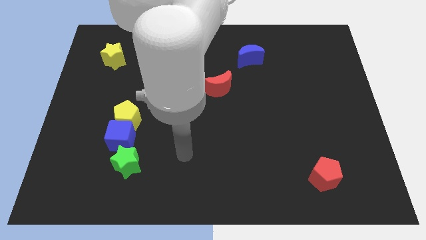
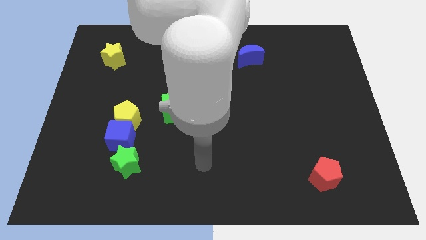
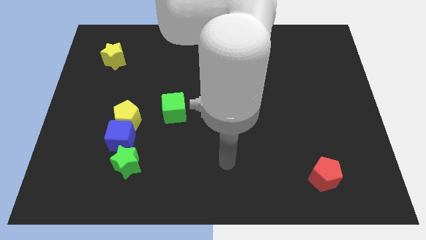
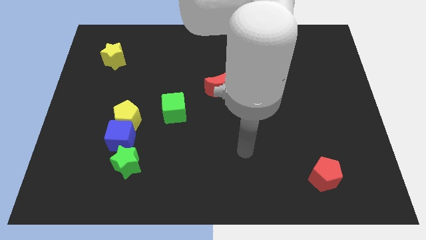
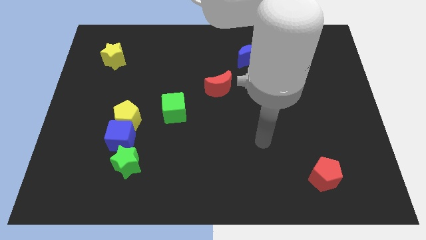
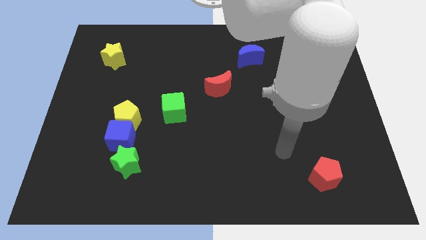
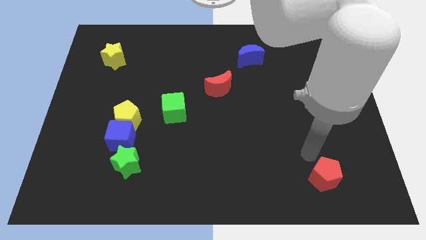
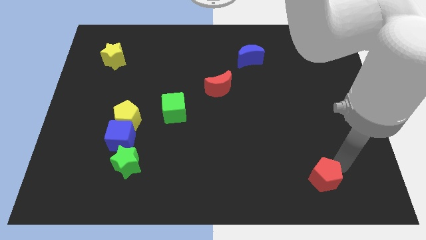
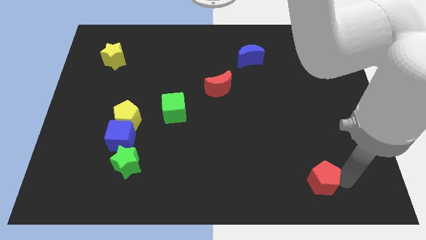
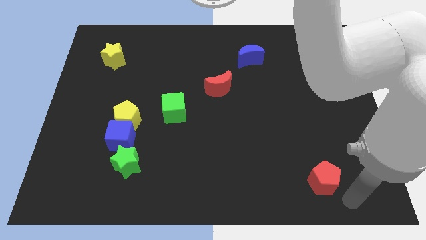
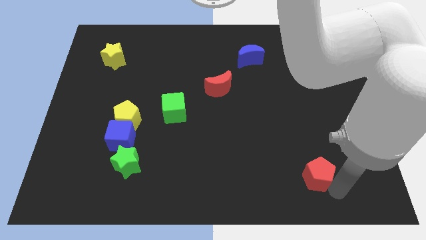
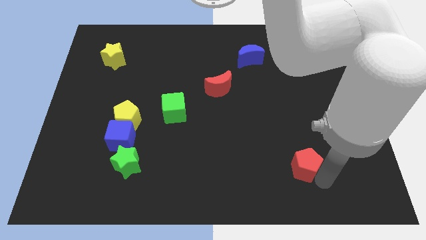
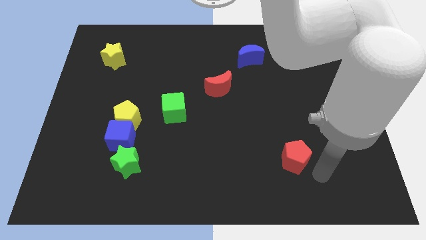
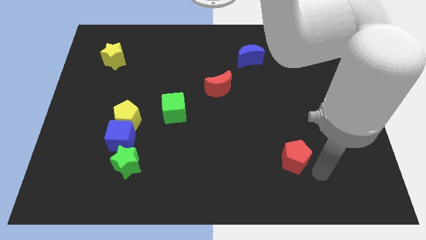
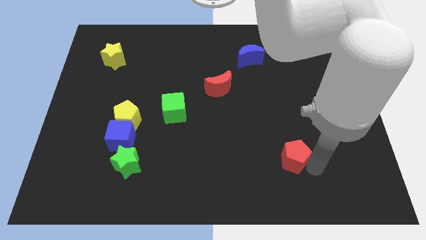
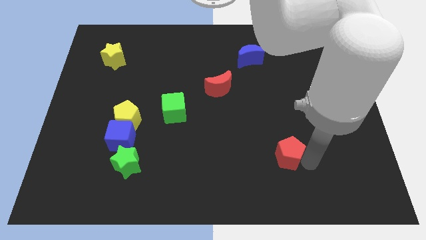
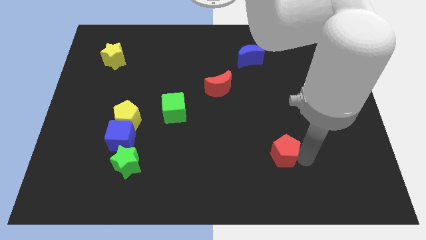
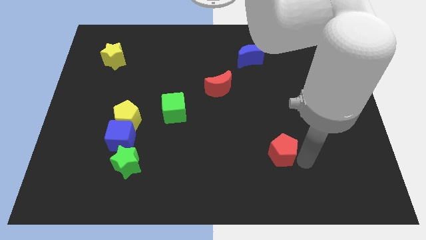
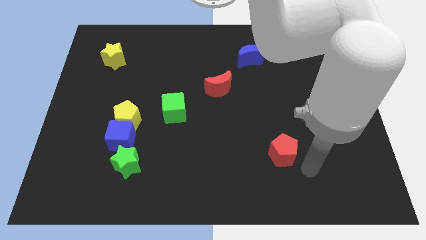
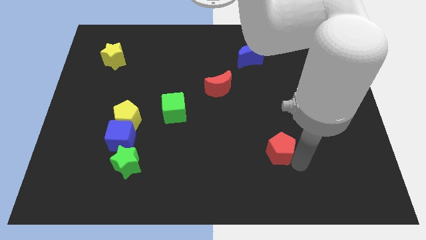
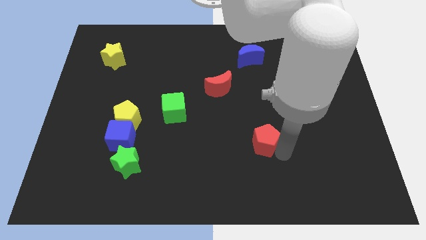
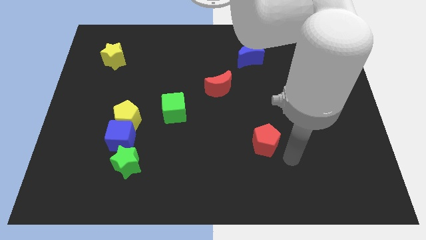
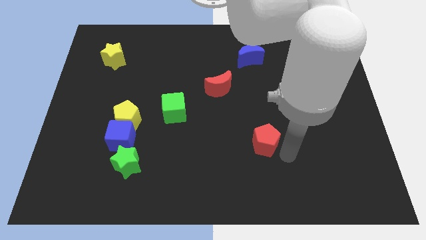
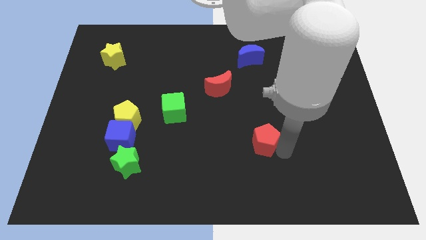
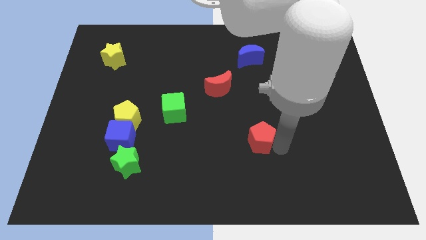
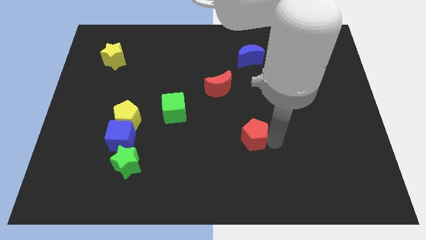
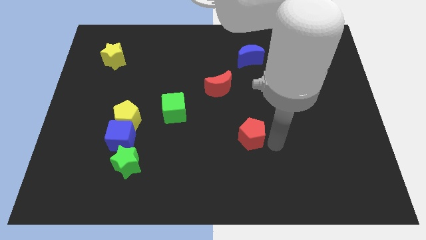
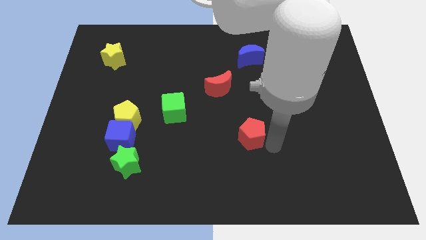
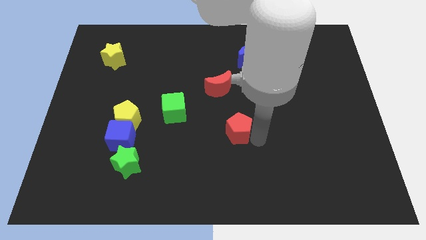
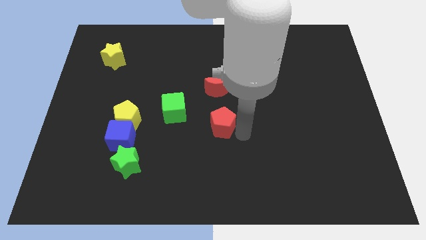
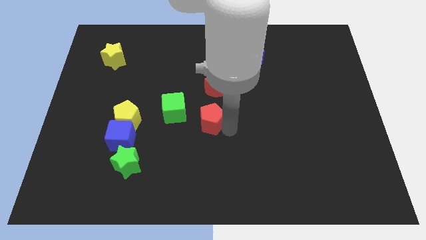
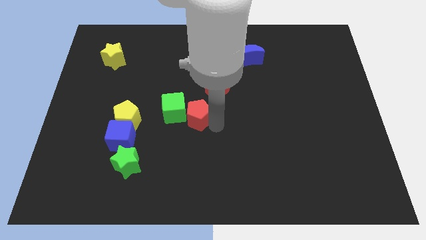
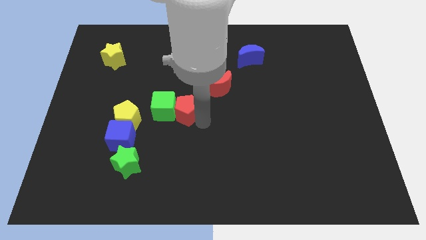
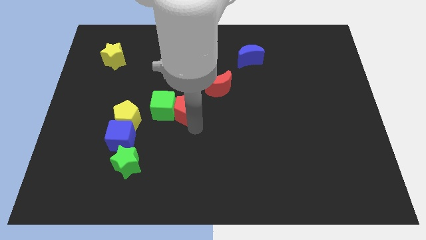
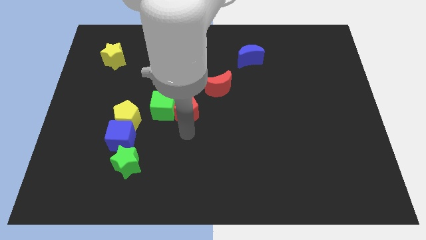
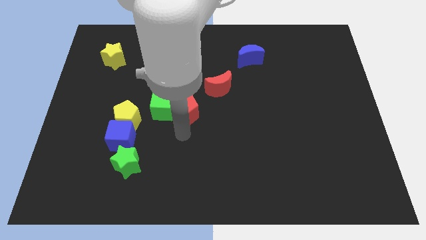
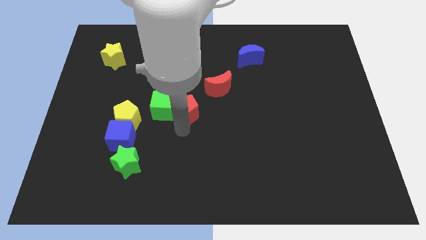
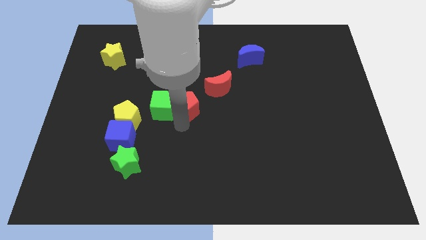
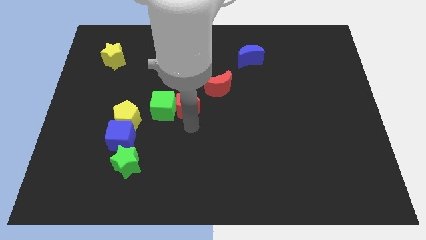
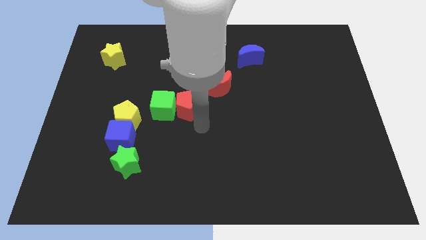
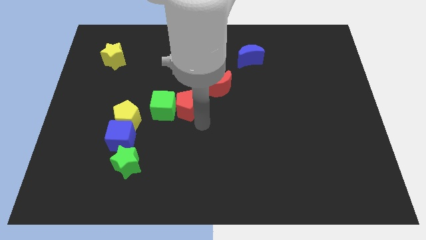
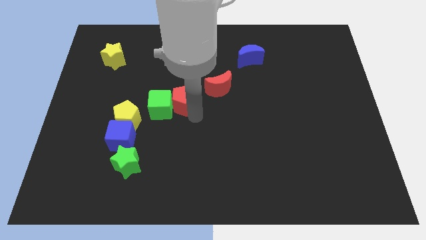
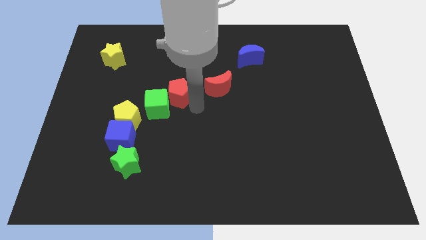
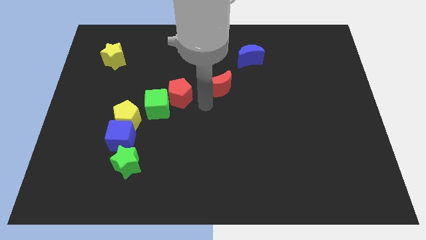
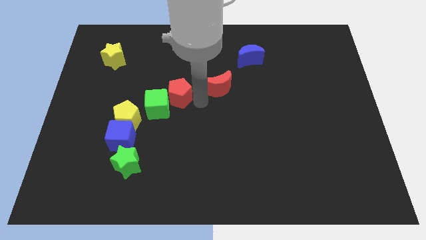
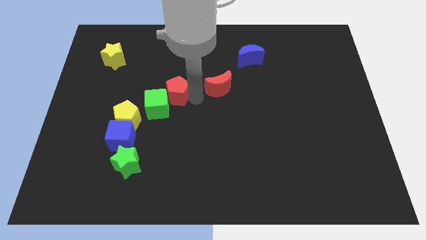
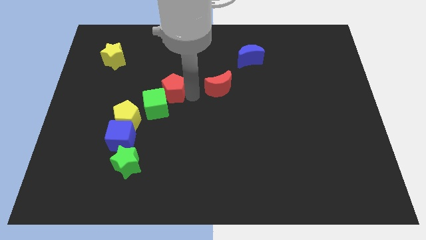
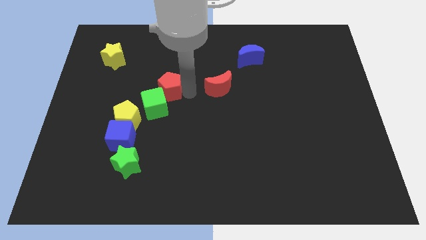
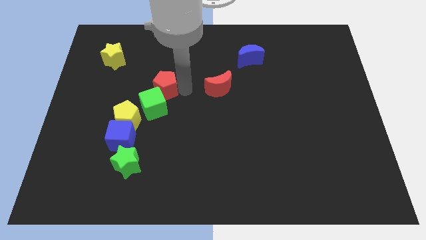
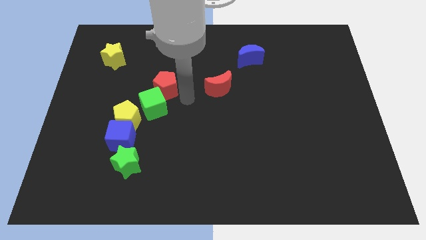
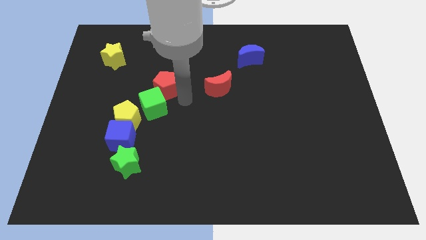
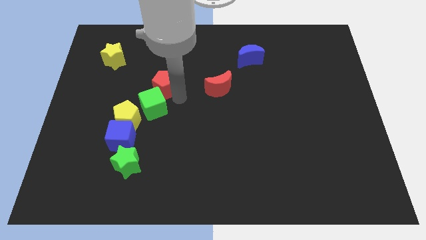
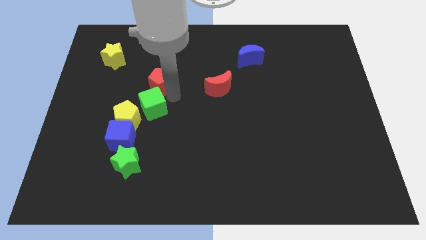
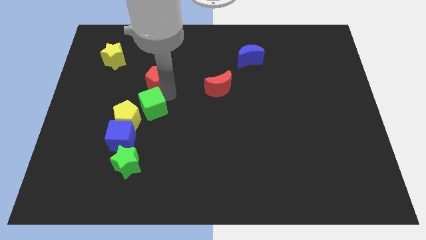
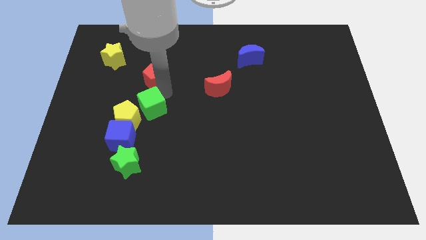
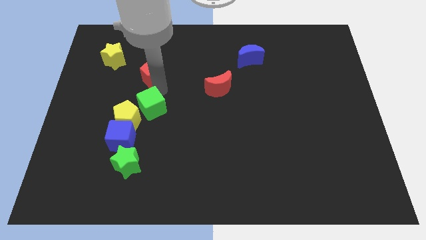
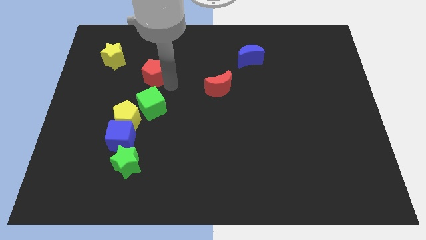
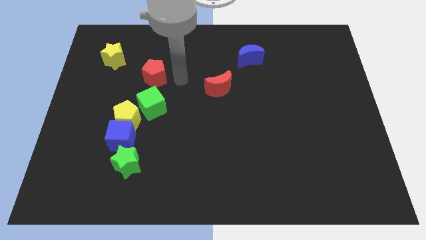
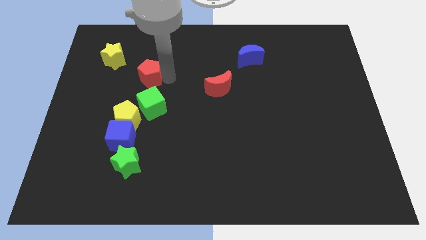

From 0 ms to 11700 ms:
put the red pentagon to the bottom right side of the yellow star

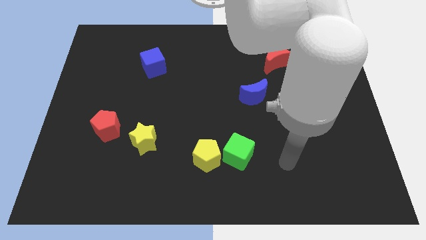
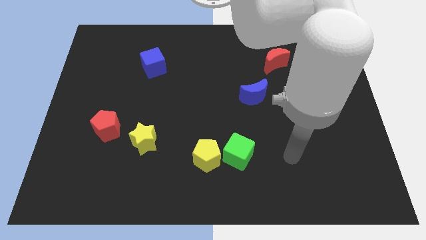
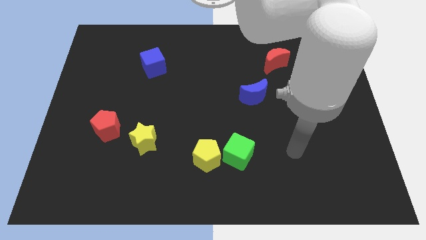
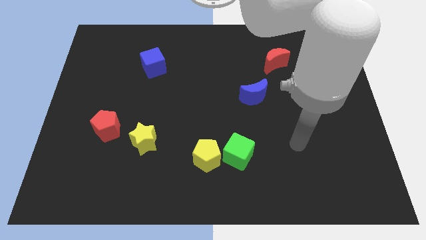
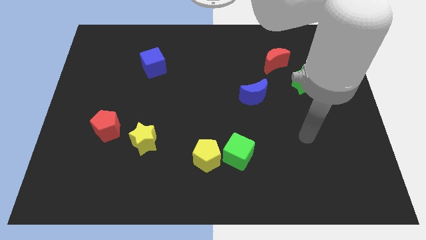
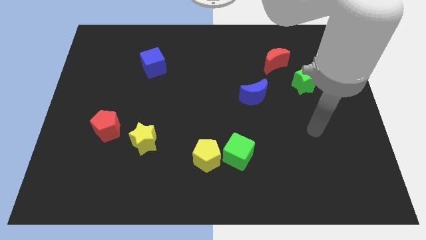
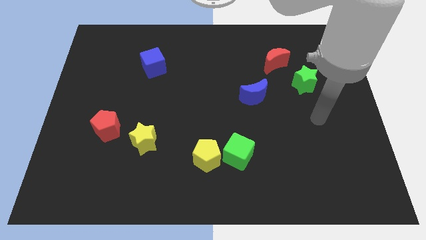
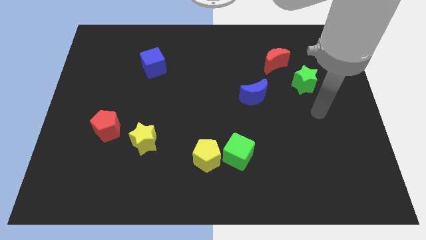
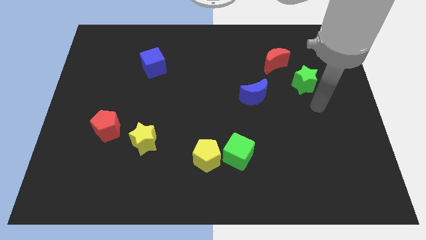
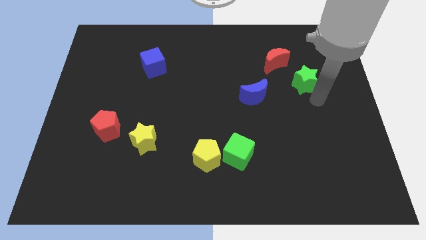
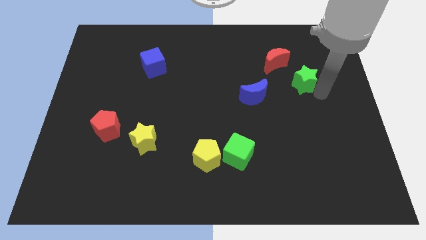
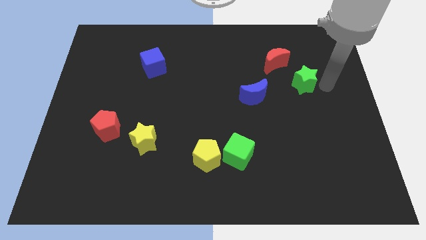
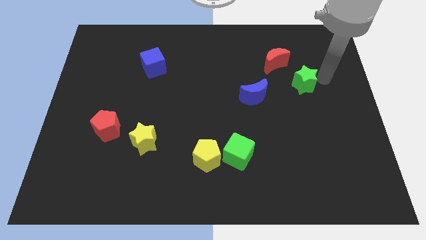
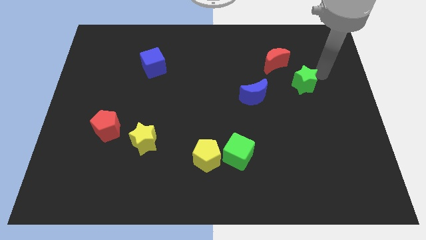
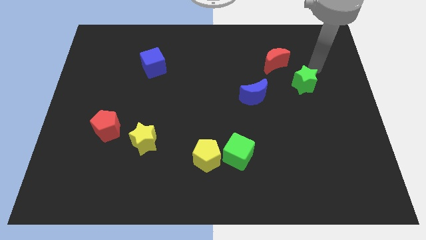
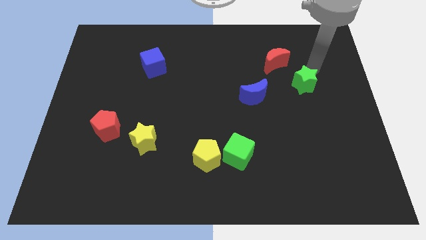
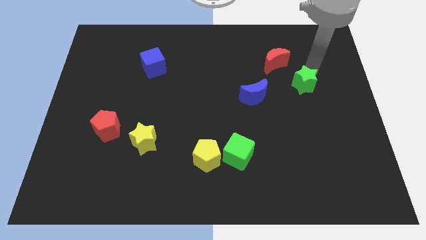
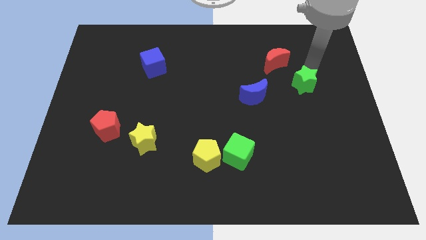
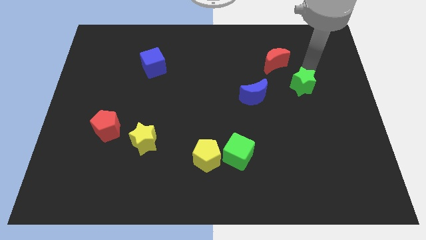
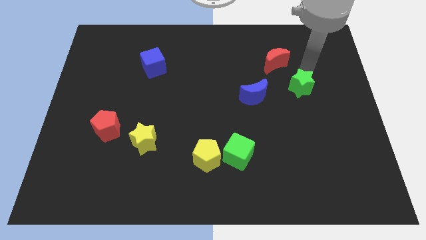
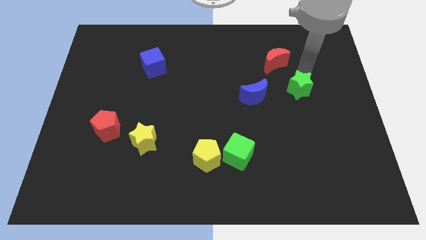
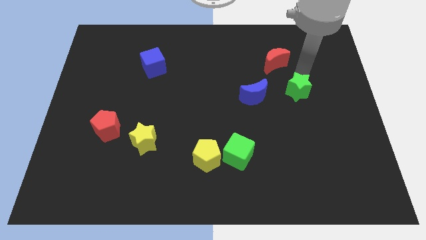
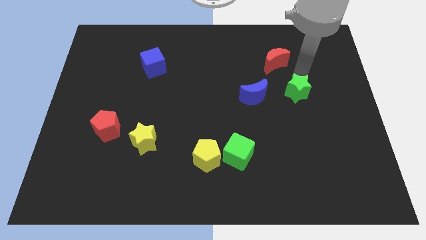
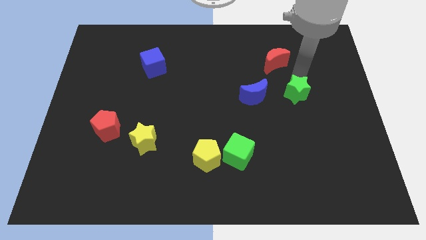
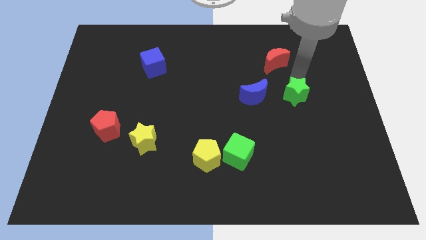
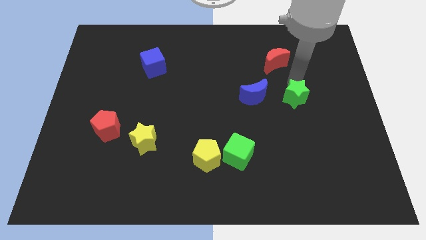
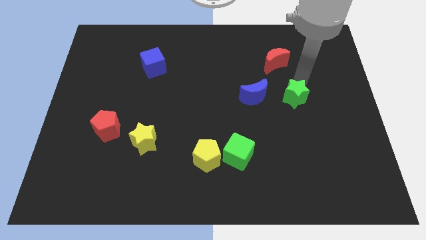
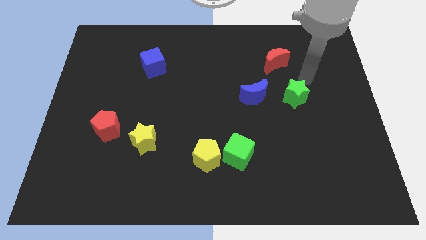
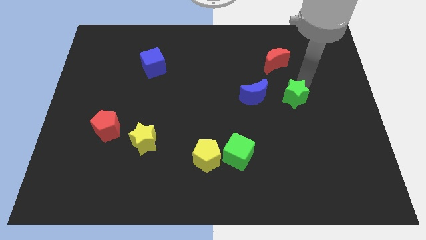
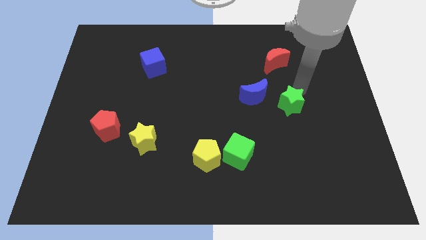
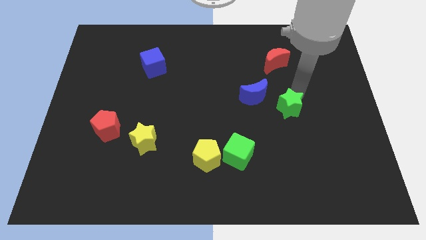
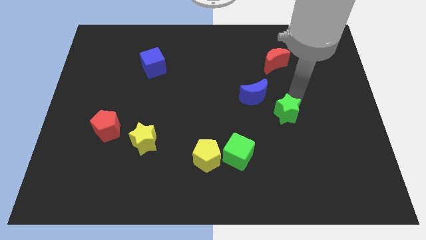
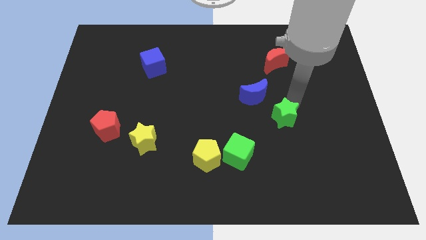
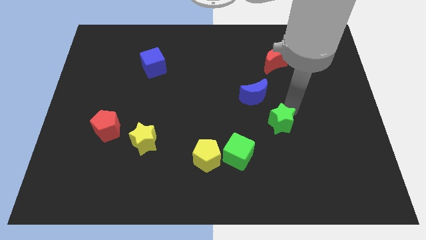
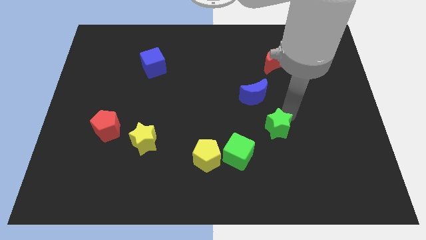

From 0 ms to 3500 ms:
slide the green star diagonally up and to the right of the green cube
